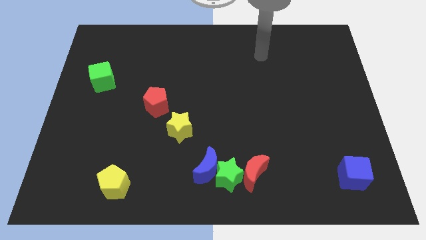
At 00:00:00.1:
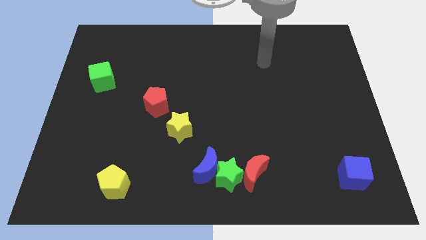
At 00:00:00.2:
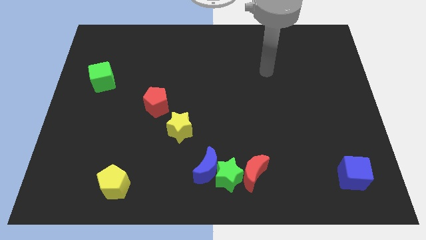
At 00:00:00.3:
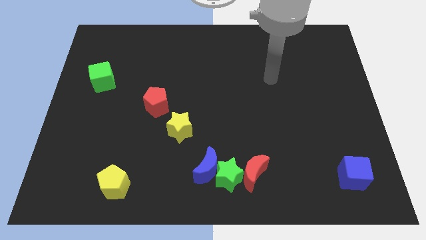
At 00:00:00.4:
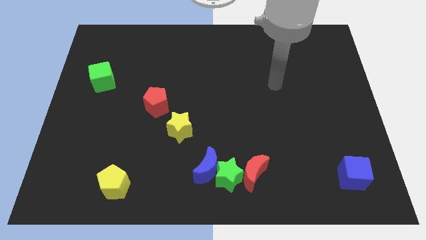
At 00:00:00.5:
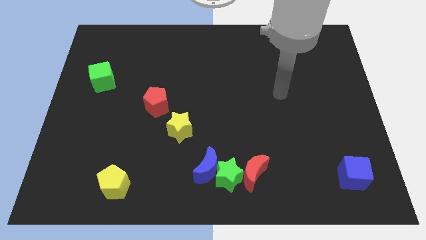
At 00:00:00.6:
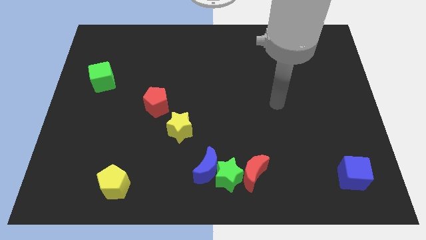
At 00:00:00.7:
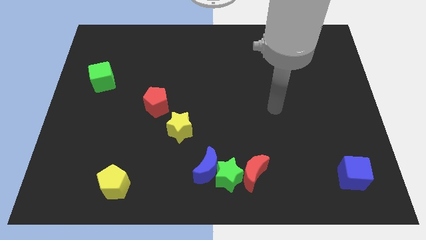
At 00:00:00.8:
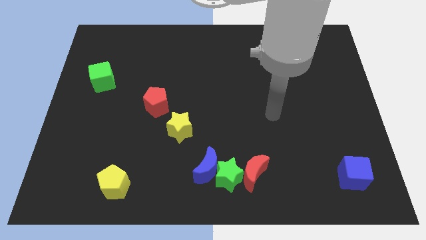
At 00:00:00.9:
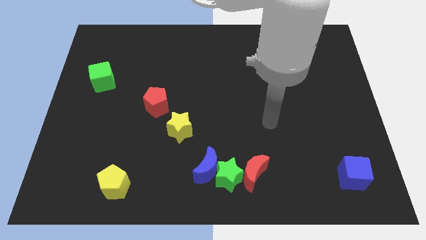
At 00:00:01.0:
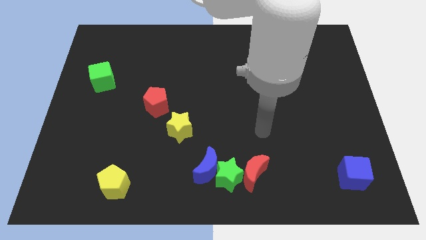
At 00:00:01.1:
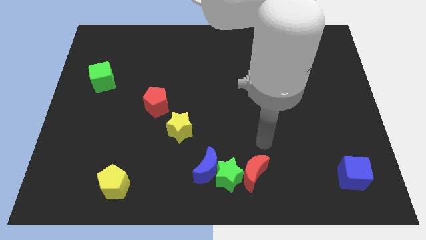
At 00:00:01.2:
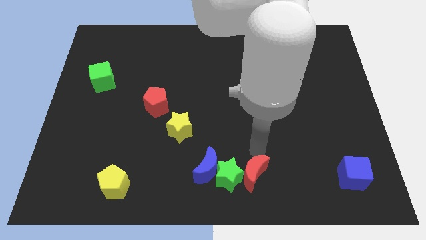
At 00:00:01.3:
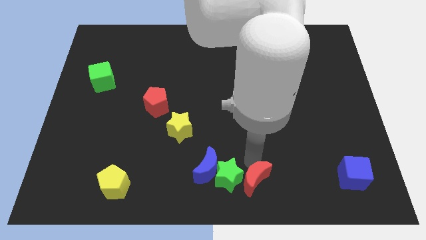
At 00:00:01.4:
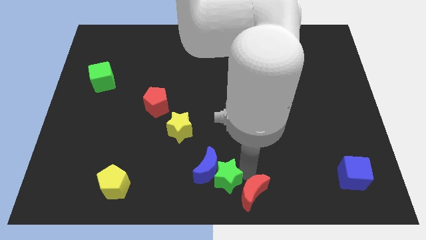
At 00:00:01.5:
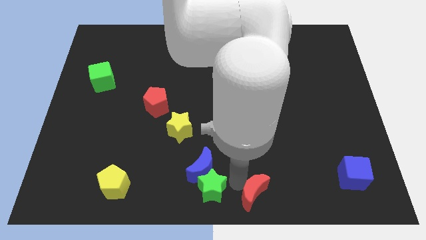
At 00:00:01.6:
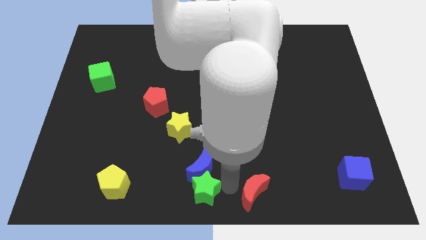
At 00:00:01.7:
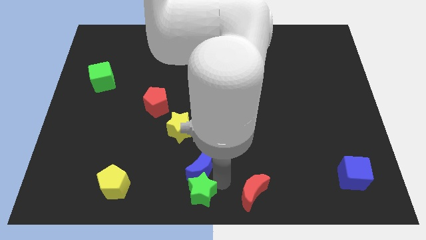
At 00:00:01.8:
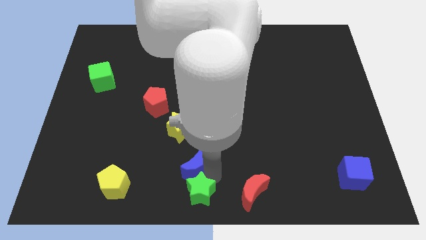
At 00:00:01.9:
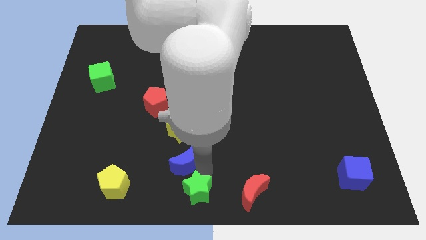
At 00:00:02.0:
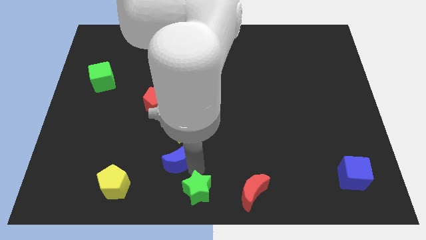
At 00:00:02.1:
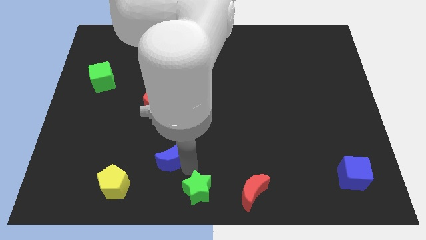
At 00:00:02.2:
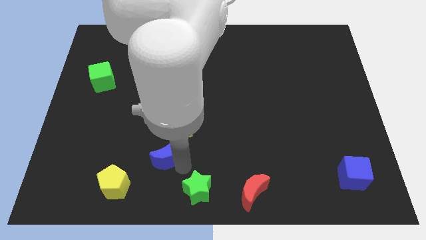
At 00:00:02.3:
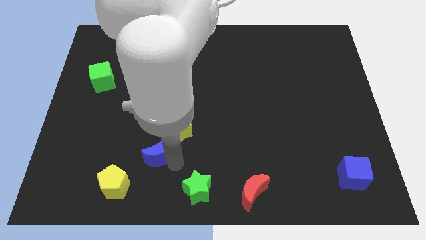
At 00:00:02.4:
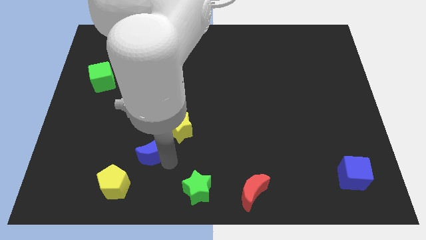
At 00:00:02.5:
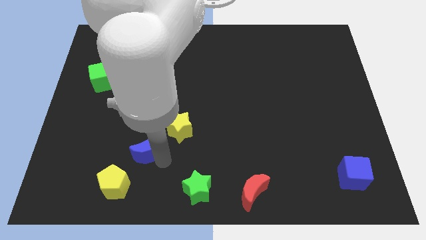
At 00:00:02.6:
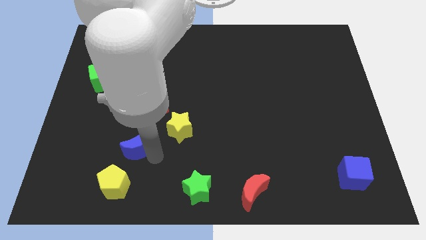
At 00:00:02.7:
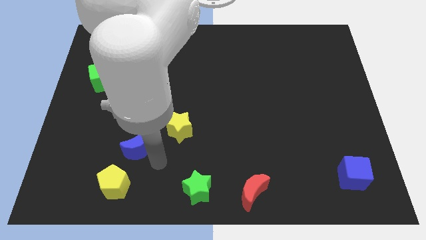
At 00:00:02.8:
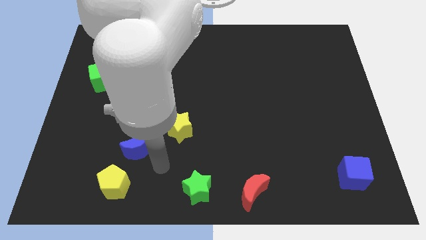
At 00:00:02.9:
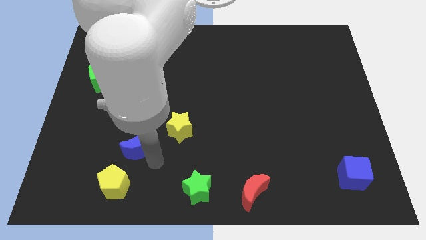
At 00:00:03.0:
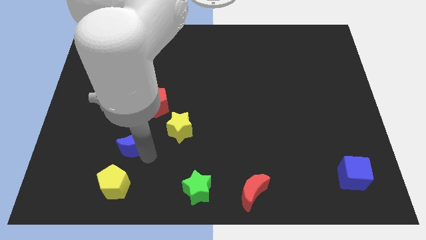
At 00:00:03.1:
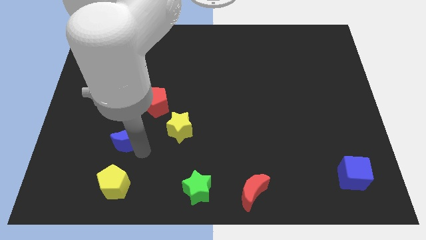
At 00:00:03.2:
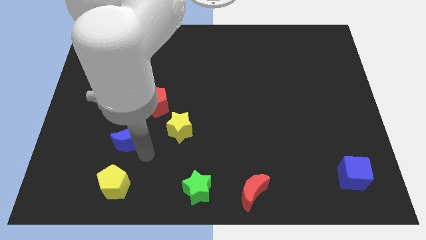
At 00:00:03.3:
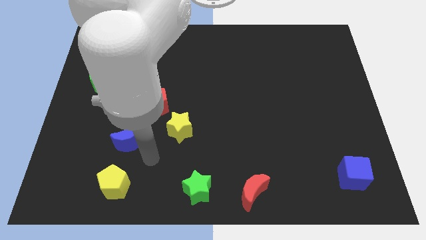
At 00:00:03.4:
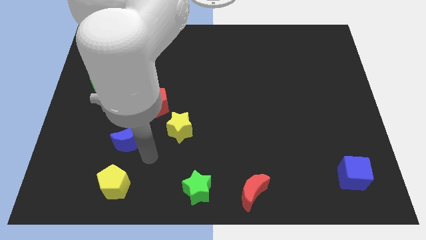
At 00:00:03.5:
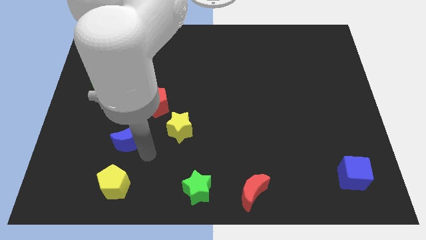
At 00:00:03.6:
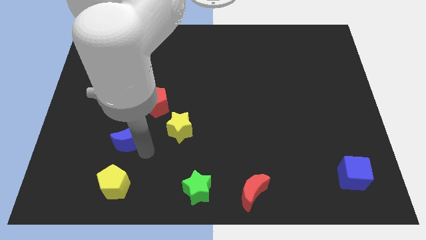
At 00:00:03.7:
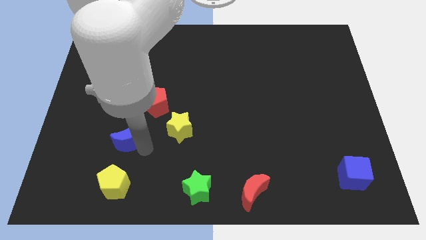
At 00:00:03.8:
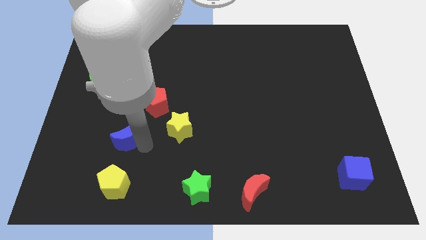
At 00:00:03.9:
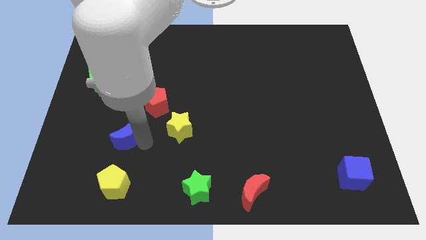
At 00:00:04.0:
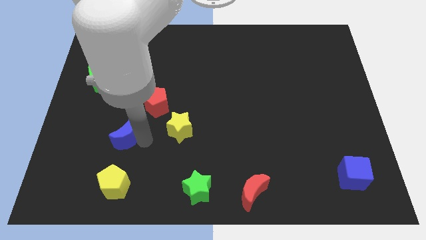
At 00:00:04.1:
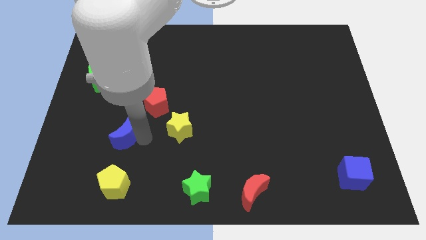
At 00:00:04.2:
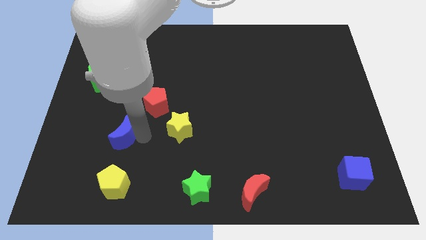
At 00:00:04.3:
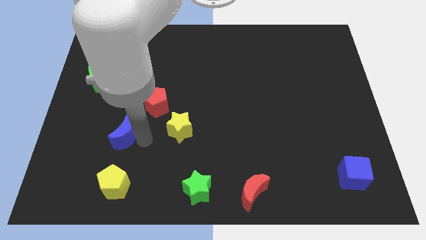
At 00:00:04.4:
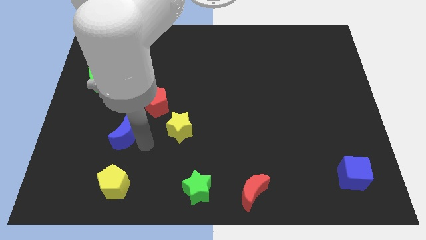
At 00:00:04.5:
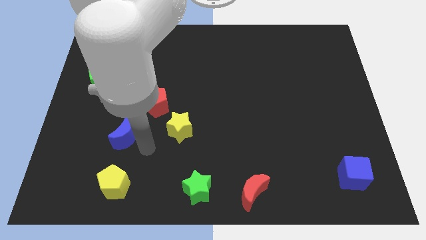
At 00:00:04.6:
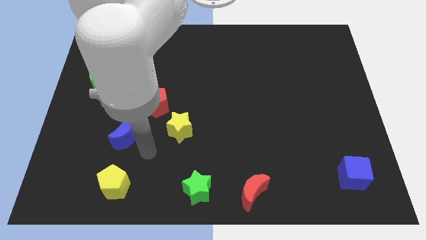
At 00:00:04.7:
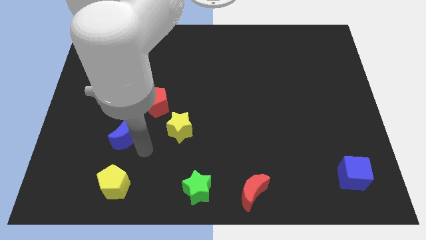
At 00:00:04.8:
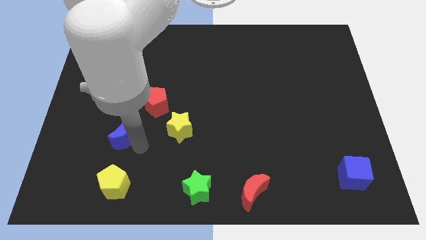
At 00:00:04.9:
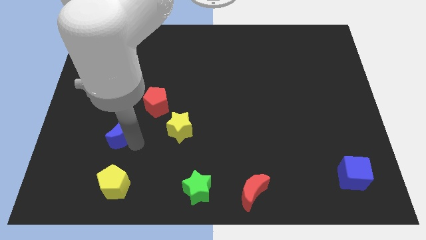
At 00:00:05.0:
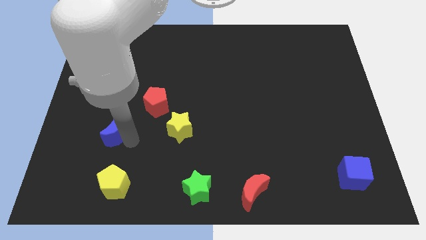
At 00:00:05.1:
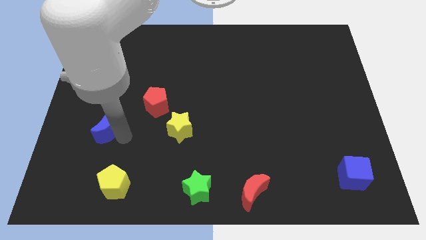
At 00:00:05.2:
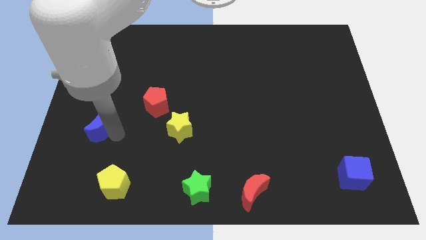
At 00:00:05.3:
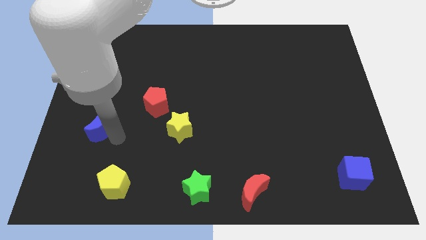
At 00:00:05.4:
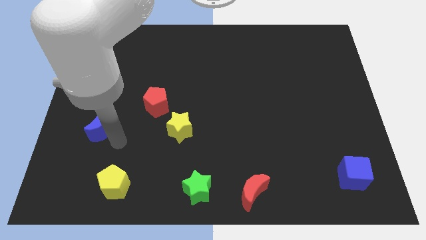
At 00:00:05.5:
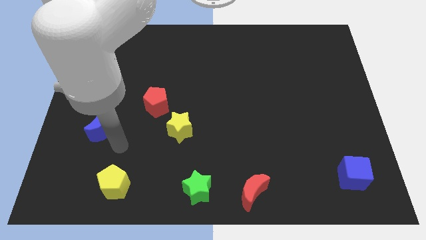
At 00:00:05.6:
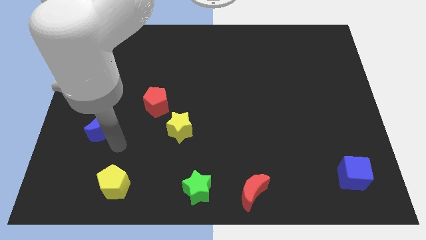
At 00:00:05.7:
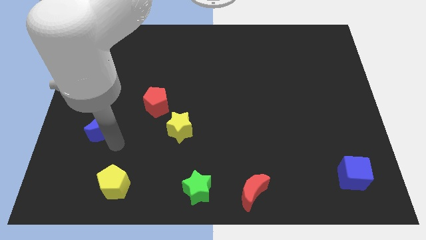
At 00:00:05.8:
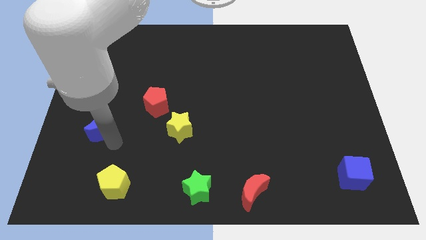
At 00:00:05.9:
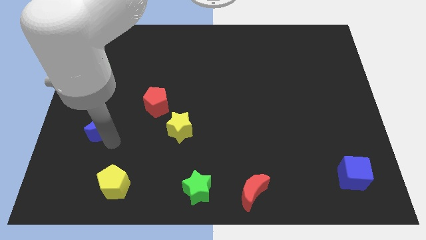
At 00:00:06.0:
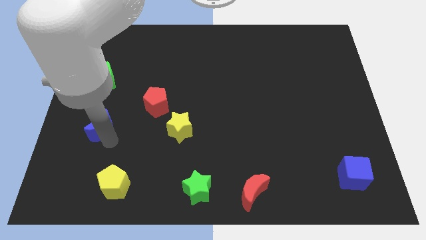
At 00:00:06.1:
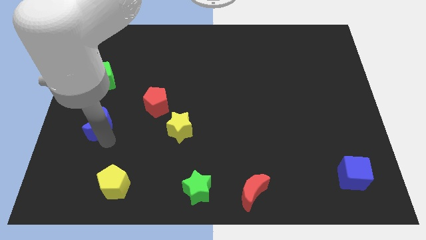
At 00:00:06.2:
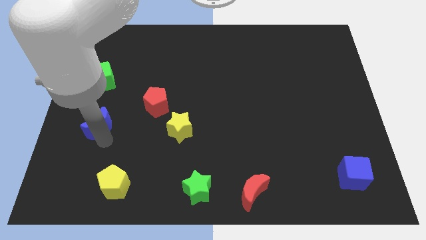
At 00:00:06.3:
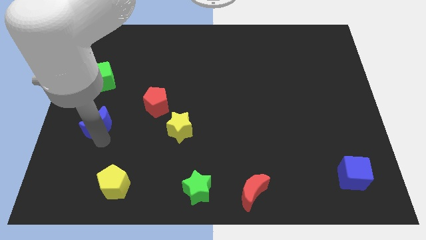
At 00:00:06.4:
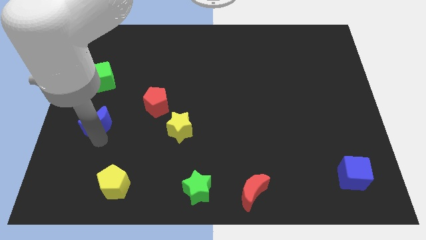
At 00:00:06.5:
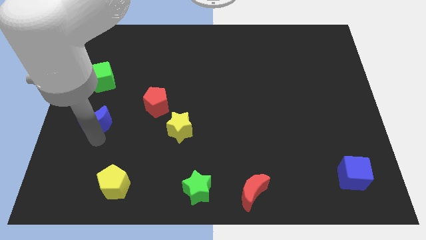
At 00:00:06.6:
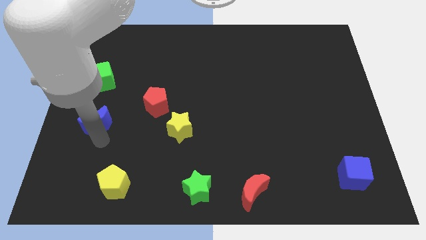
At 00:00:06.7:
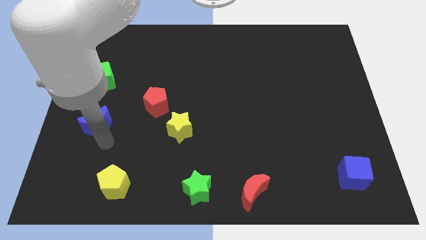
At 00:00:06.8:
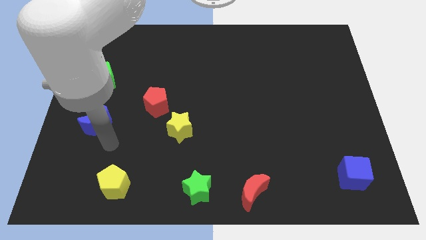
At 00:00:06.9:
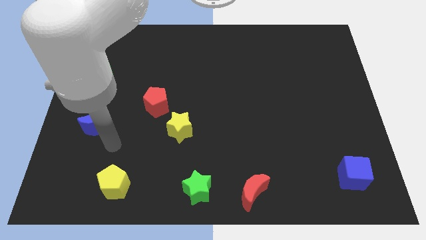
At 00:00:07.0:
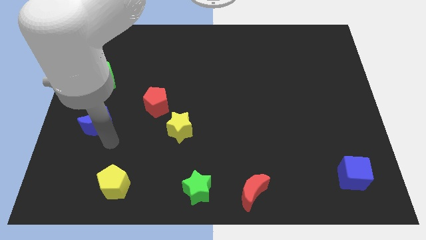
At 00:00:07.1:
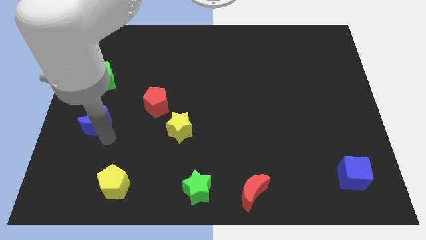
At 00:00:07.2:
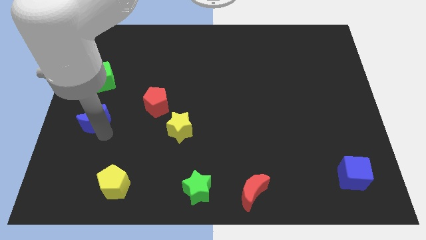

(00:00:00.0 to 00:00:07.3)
slide the blue moon to the left side
